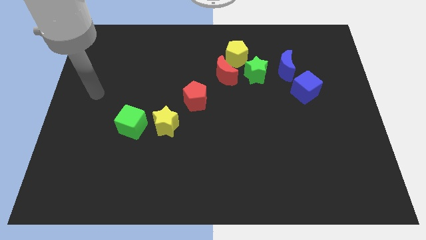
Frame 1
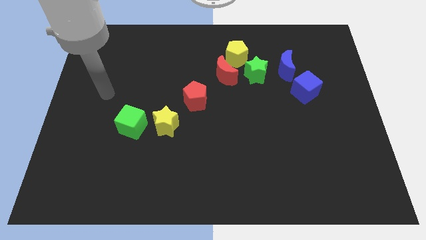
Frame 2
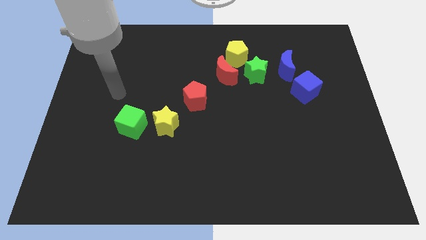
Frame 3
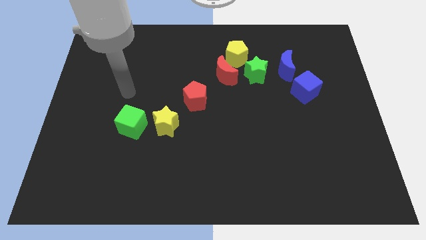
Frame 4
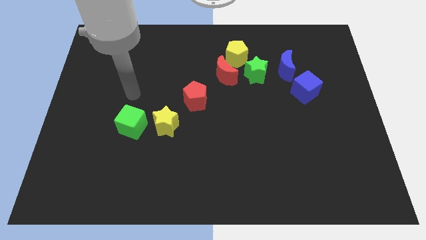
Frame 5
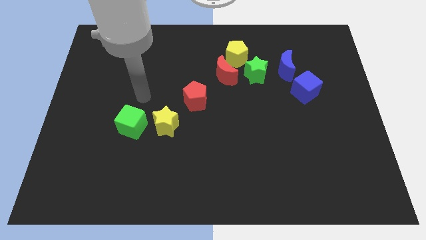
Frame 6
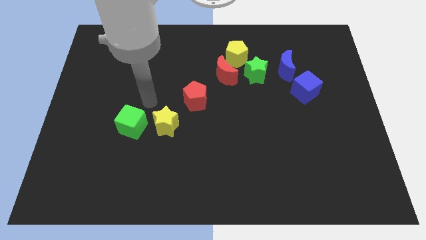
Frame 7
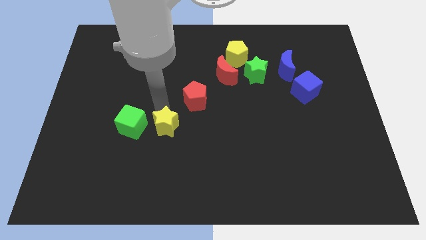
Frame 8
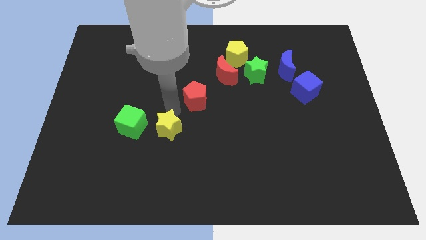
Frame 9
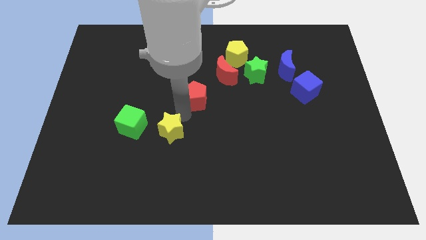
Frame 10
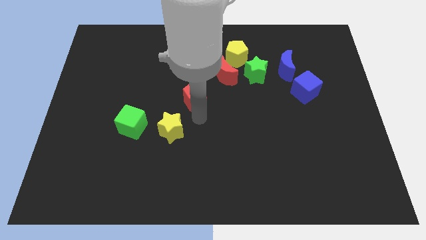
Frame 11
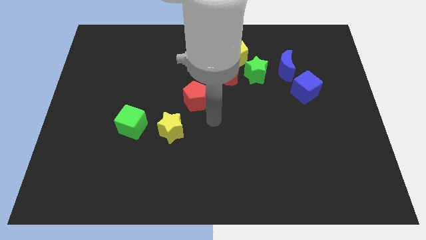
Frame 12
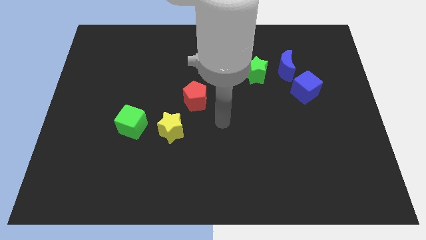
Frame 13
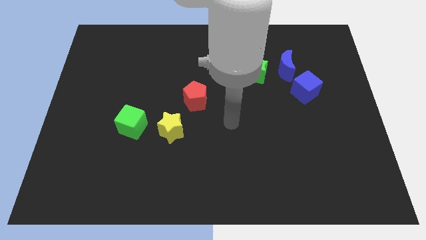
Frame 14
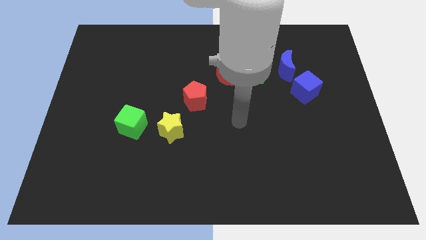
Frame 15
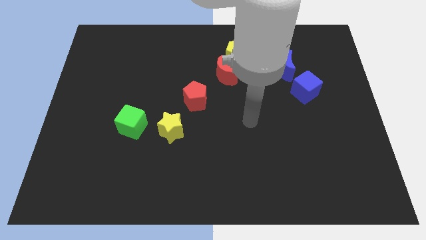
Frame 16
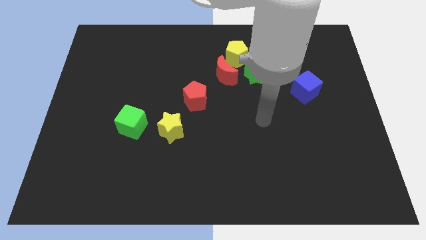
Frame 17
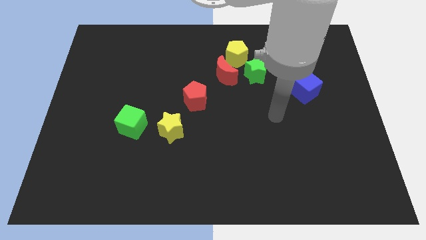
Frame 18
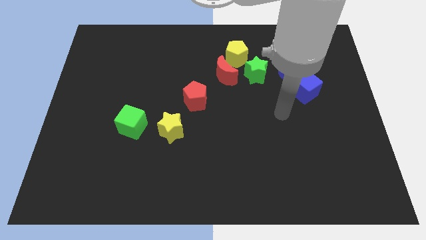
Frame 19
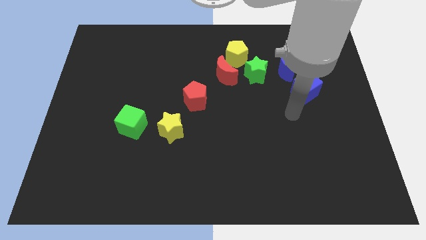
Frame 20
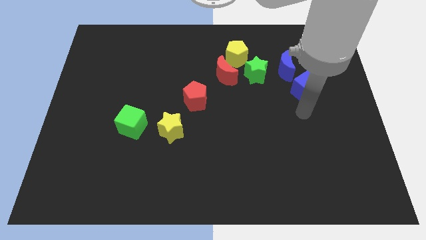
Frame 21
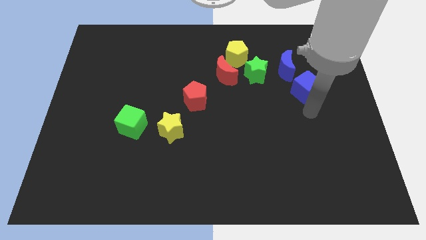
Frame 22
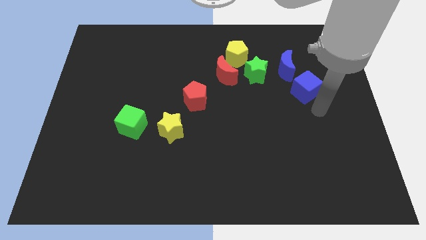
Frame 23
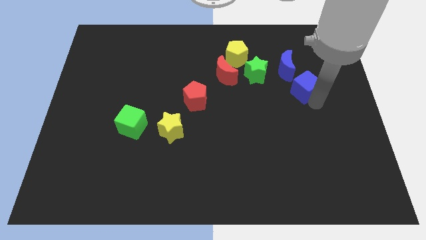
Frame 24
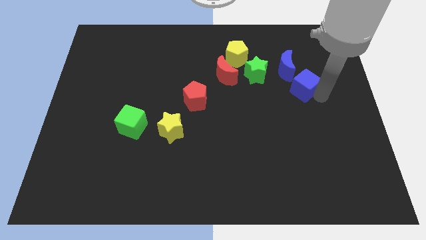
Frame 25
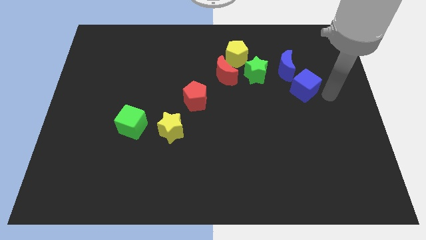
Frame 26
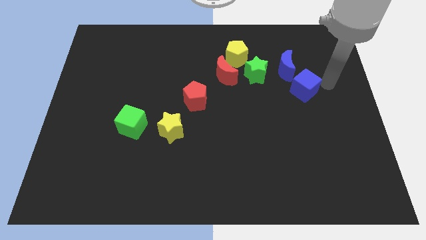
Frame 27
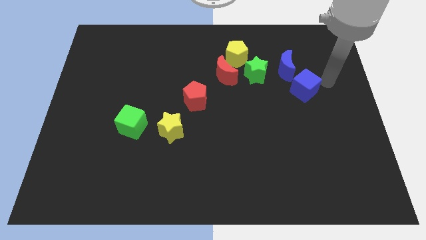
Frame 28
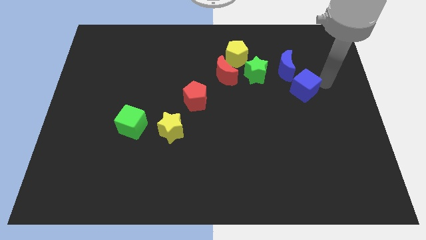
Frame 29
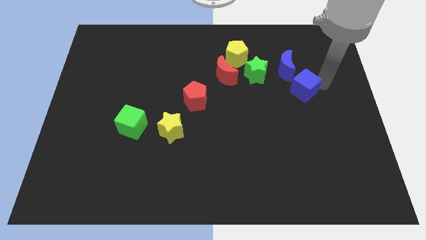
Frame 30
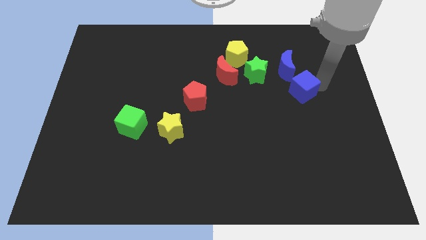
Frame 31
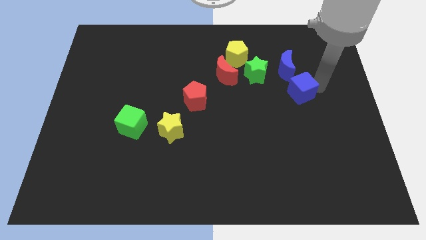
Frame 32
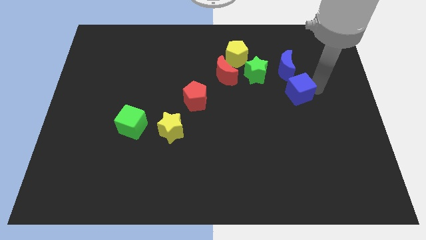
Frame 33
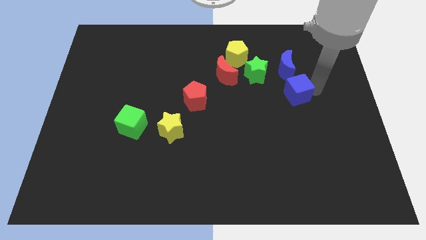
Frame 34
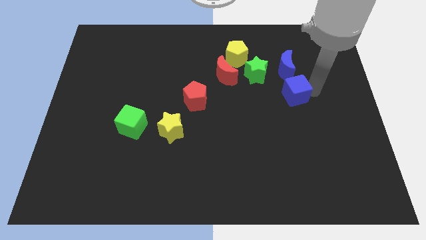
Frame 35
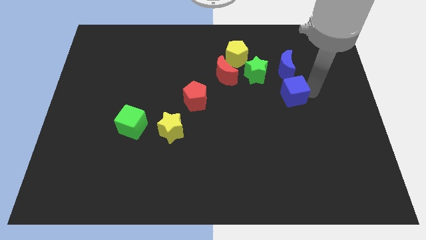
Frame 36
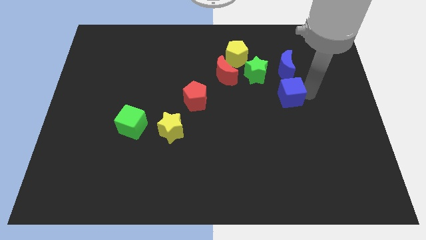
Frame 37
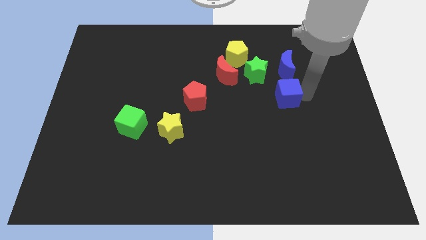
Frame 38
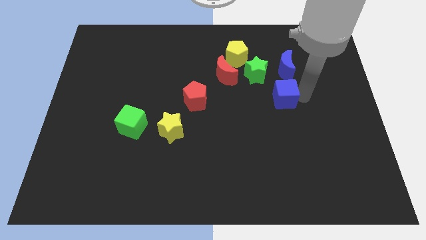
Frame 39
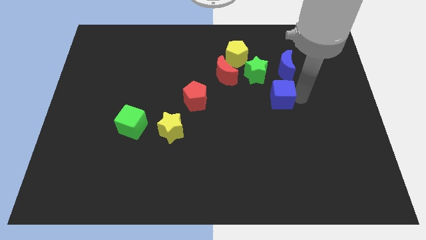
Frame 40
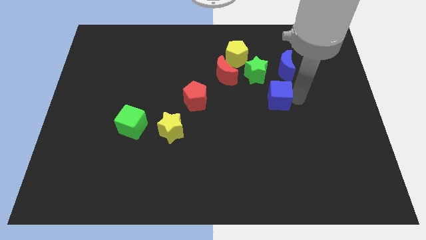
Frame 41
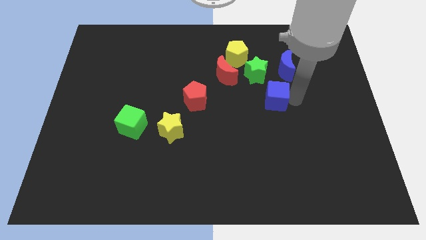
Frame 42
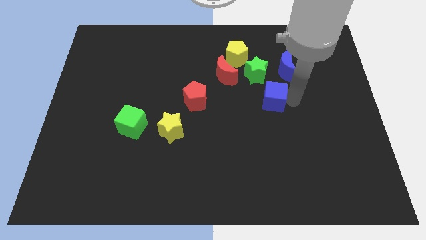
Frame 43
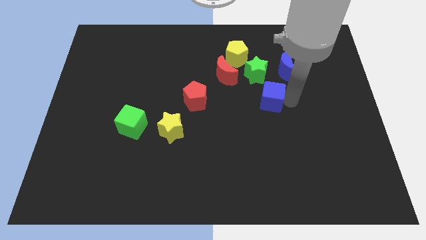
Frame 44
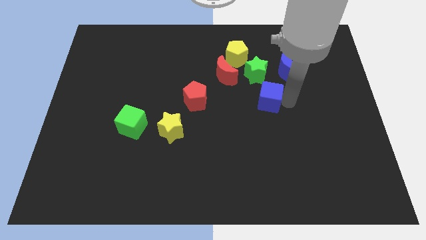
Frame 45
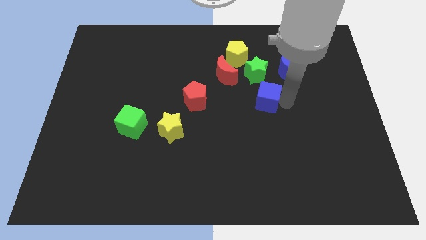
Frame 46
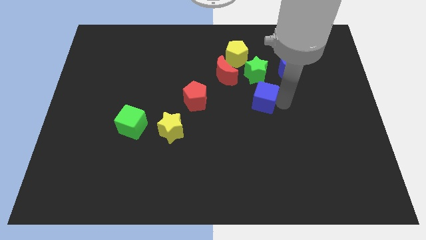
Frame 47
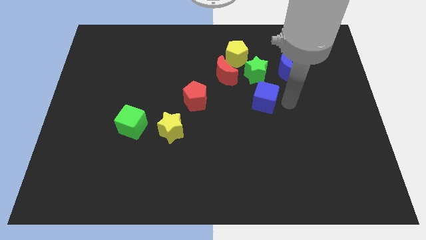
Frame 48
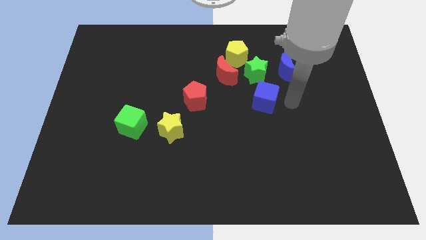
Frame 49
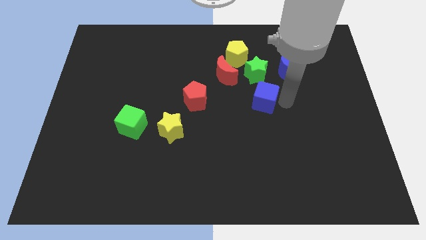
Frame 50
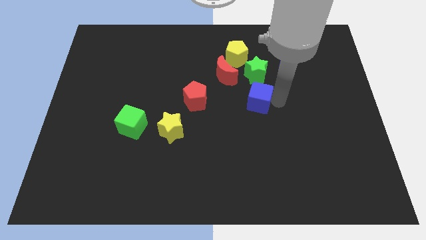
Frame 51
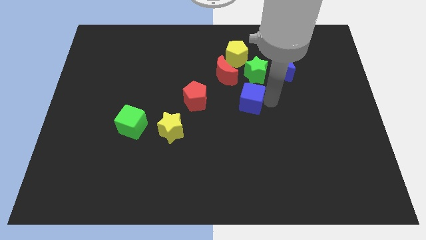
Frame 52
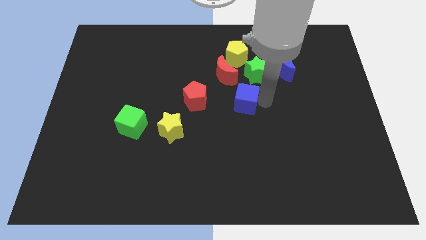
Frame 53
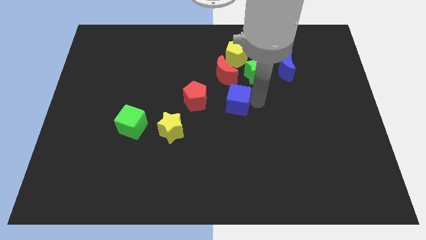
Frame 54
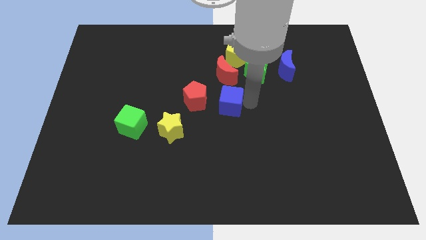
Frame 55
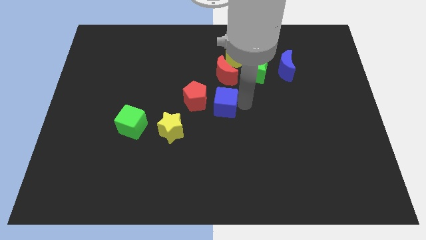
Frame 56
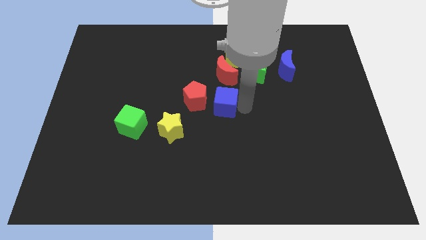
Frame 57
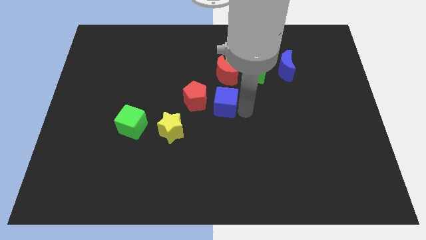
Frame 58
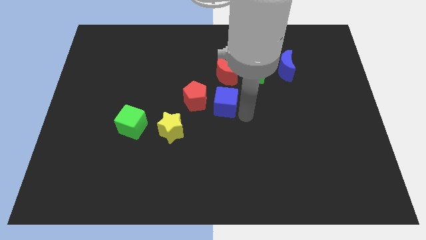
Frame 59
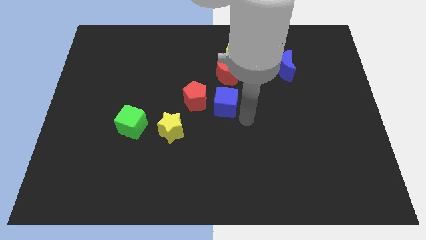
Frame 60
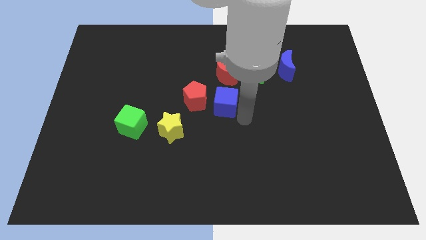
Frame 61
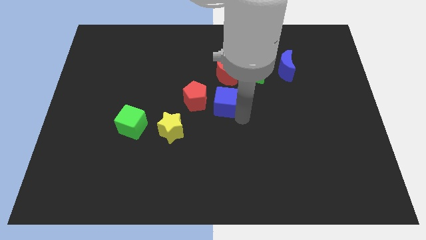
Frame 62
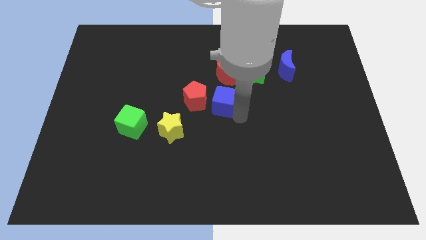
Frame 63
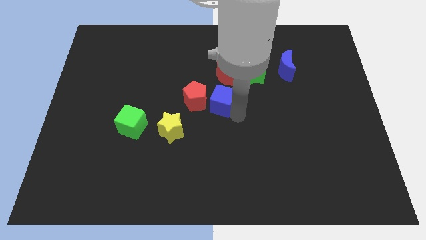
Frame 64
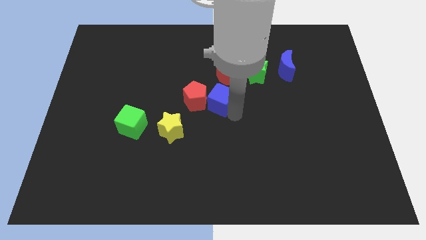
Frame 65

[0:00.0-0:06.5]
push the blue cube close to the red pentagon

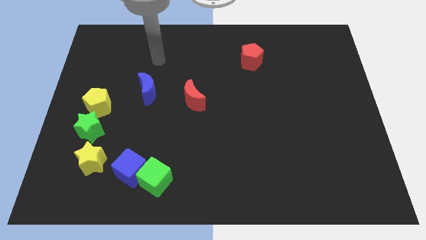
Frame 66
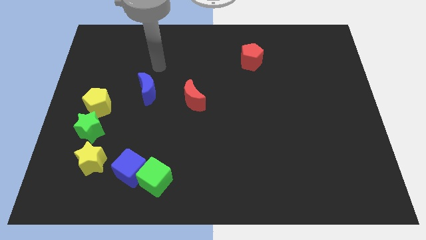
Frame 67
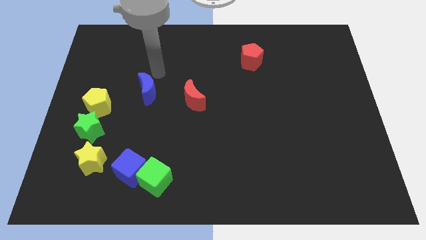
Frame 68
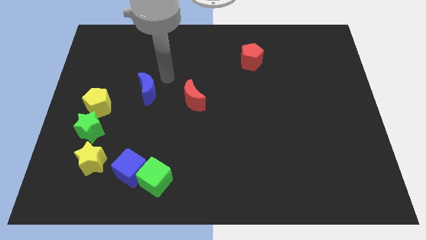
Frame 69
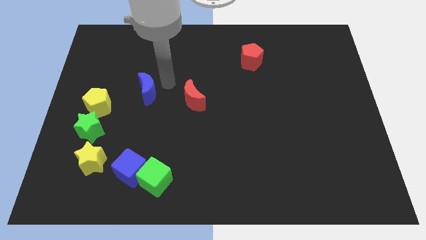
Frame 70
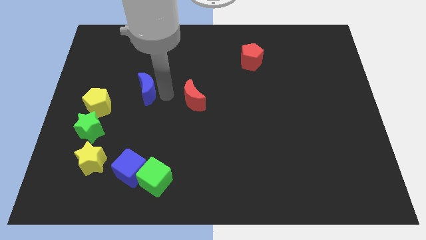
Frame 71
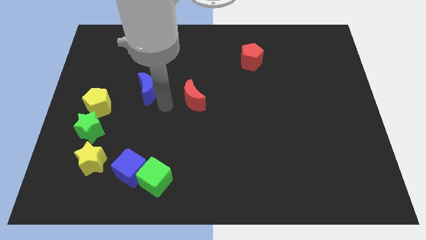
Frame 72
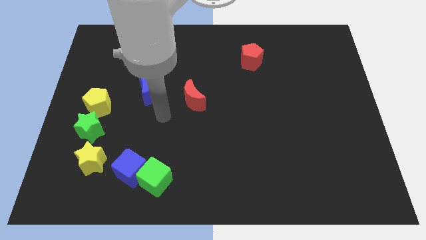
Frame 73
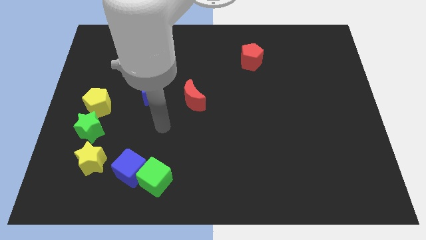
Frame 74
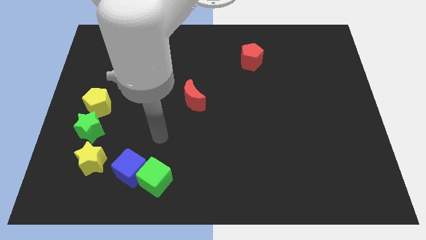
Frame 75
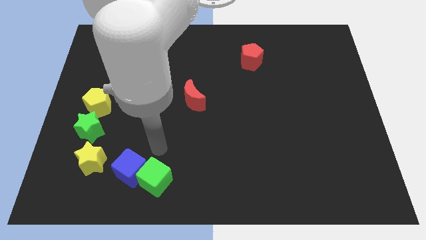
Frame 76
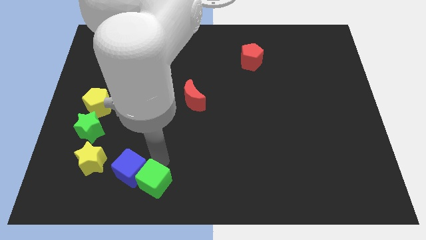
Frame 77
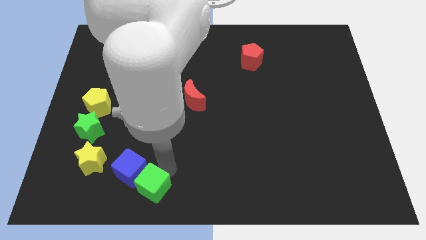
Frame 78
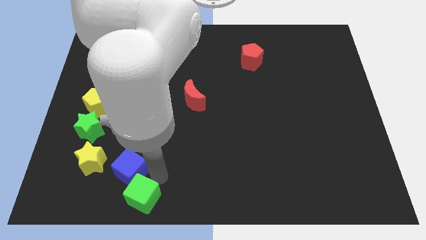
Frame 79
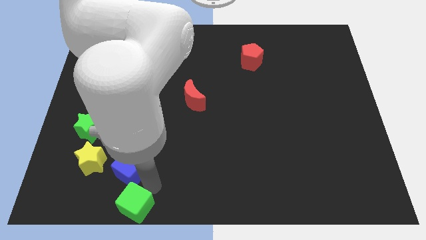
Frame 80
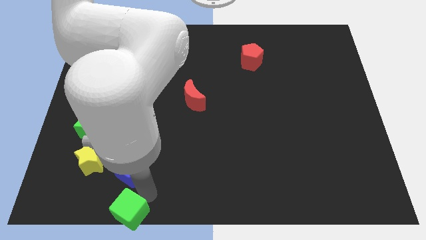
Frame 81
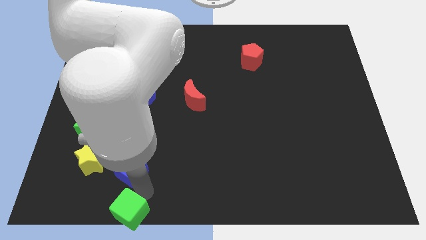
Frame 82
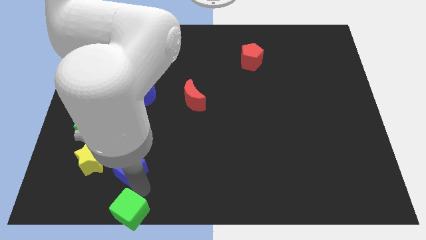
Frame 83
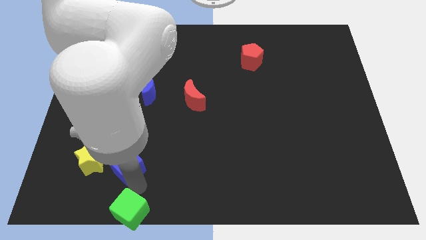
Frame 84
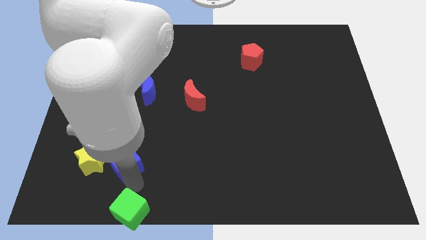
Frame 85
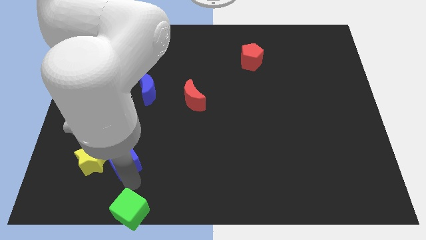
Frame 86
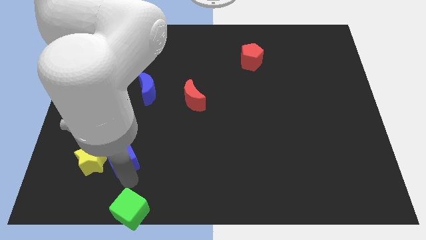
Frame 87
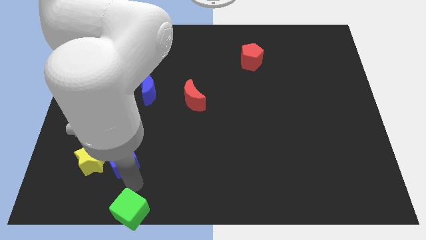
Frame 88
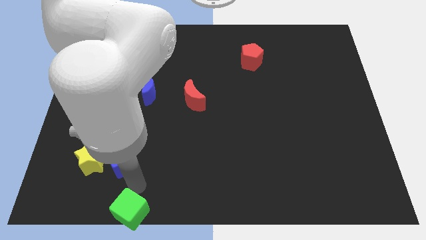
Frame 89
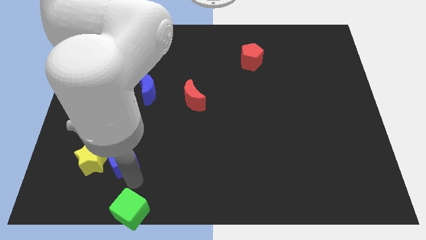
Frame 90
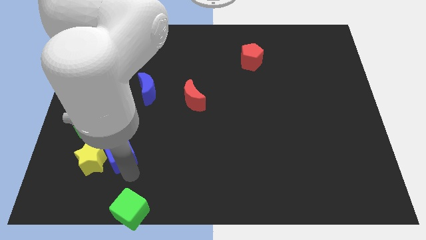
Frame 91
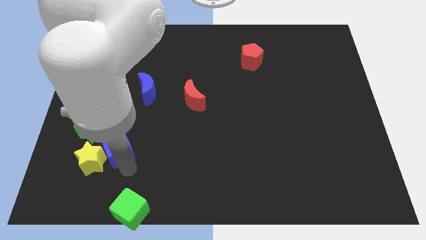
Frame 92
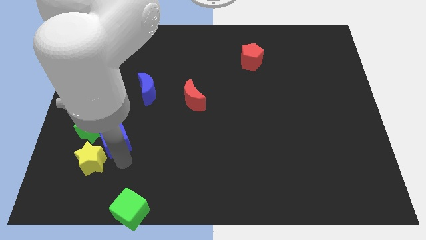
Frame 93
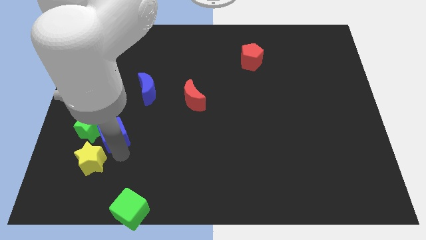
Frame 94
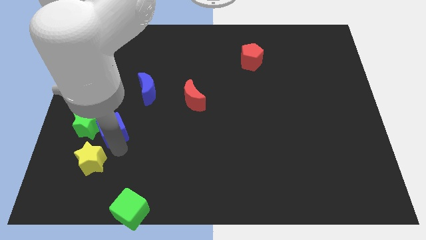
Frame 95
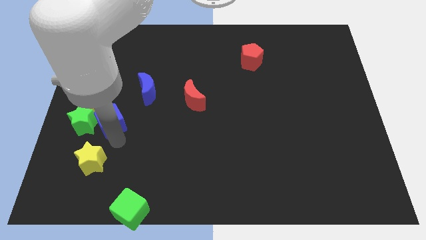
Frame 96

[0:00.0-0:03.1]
move the blue cube next to the yellow pentagon
